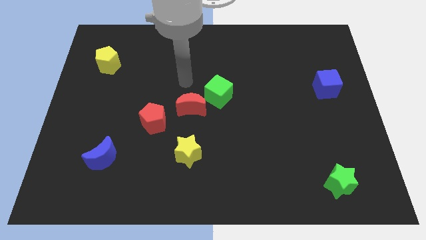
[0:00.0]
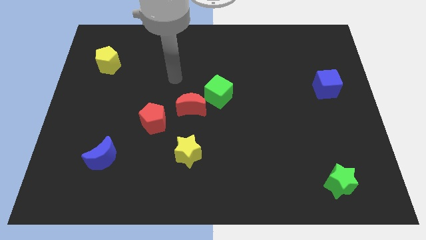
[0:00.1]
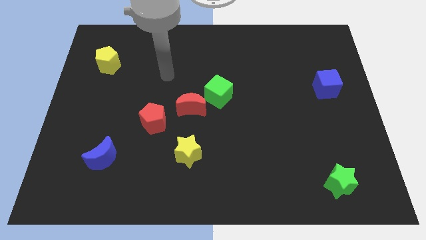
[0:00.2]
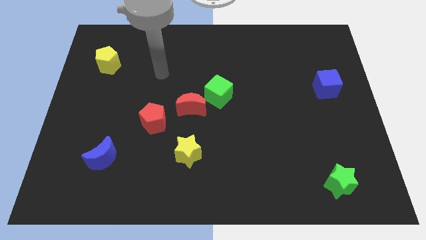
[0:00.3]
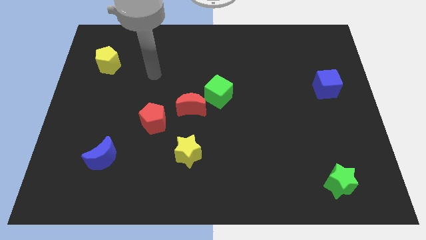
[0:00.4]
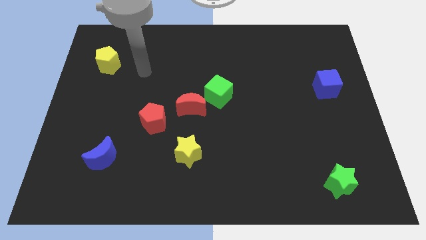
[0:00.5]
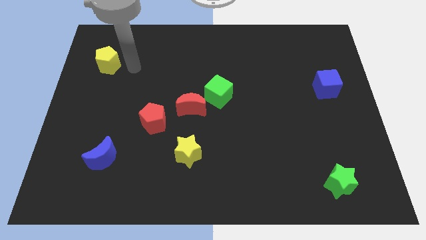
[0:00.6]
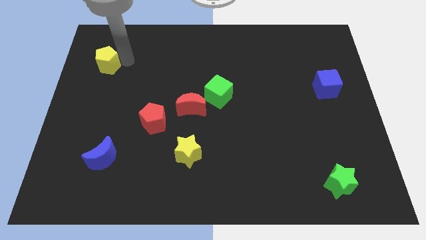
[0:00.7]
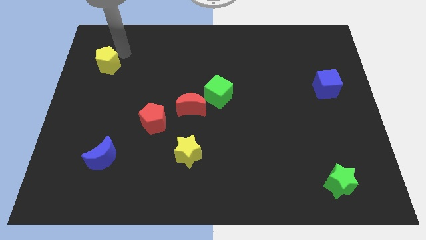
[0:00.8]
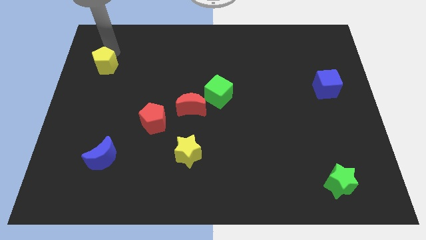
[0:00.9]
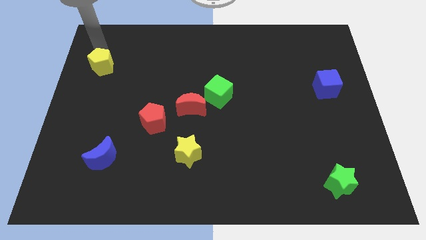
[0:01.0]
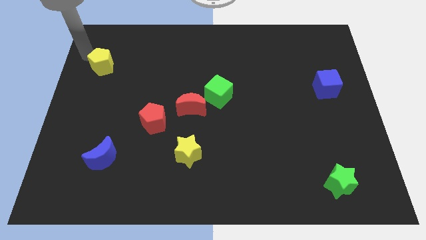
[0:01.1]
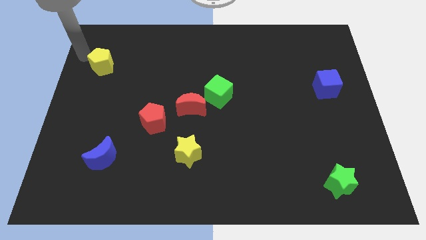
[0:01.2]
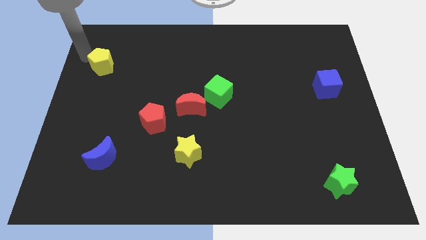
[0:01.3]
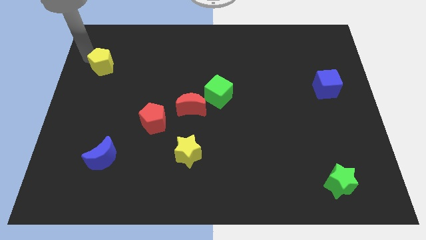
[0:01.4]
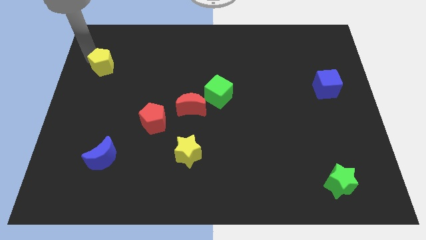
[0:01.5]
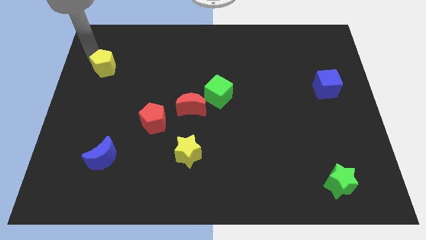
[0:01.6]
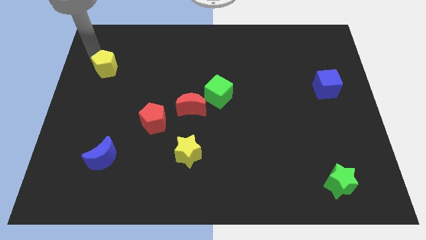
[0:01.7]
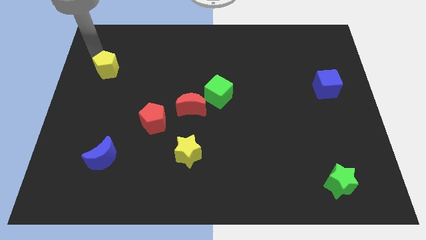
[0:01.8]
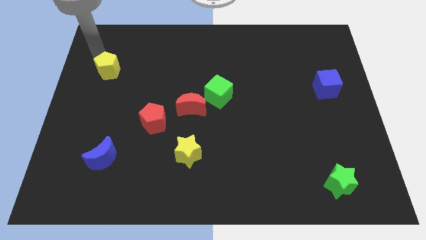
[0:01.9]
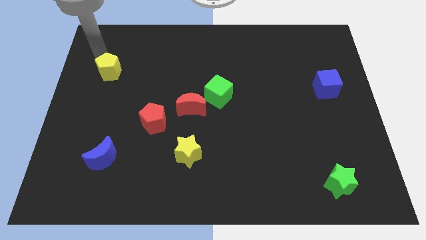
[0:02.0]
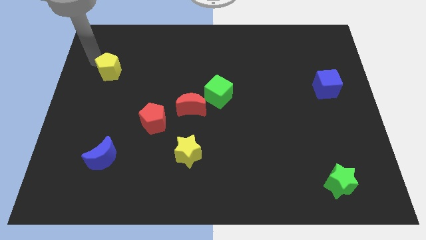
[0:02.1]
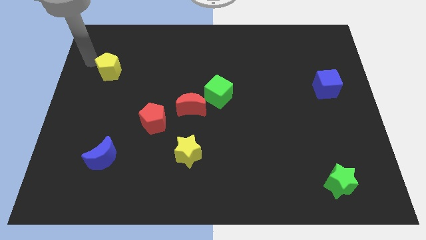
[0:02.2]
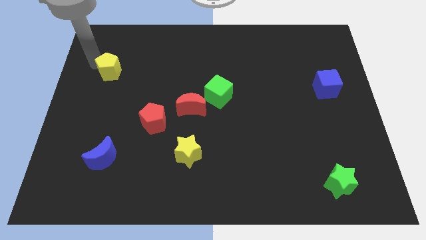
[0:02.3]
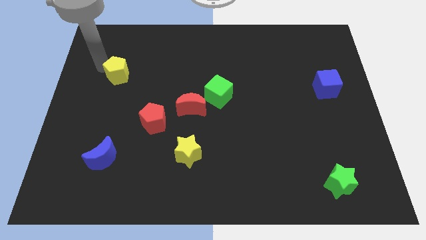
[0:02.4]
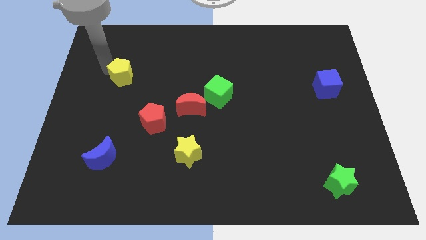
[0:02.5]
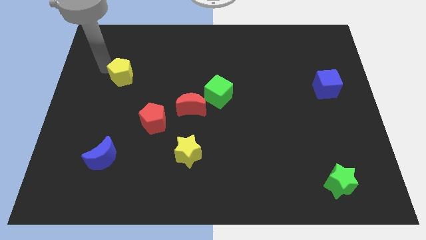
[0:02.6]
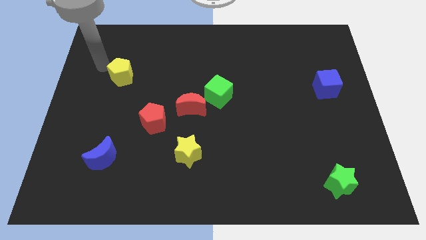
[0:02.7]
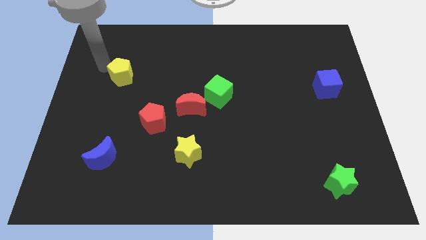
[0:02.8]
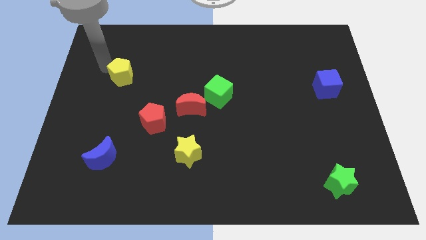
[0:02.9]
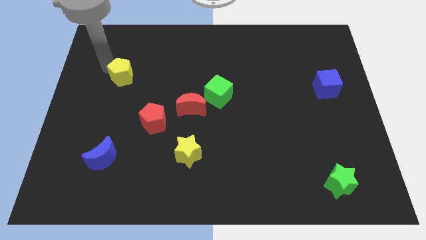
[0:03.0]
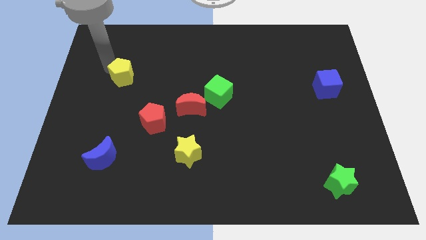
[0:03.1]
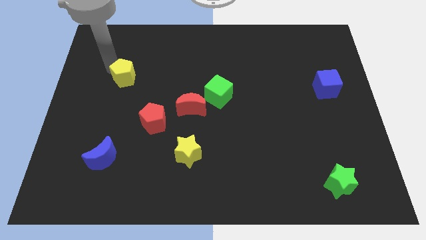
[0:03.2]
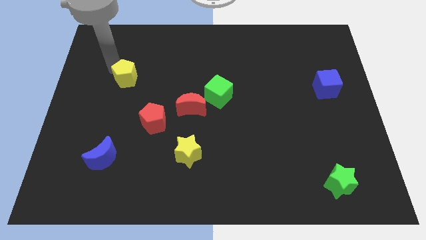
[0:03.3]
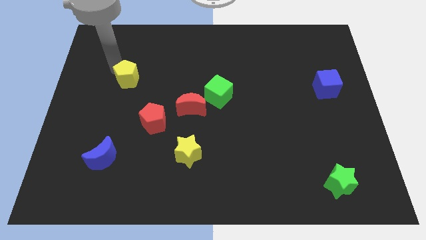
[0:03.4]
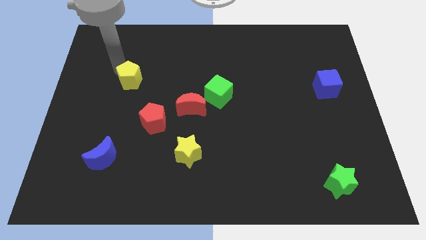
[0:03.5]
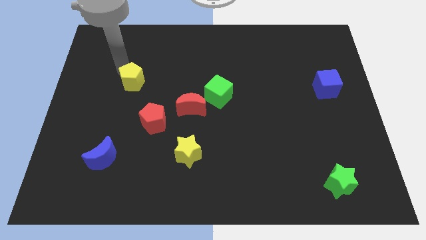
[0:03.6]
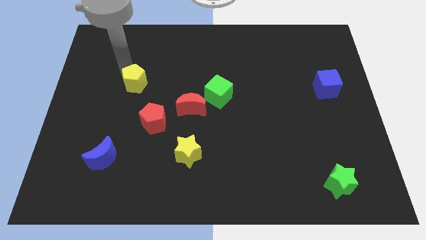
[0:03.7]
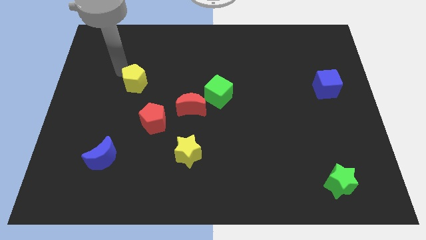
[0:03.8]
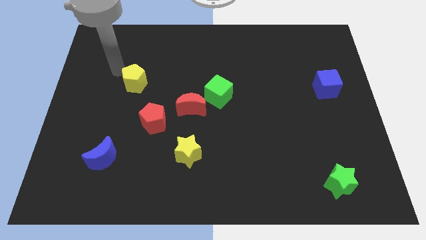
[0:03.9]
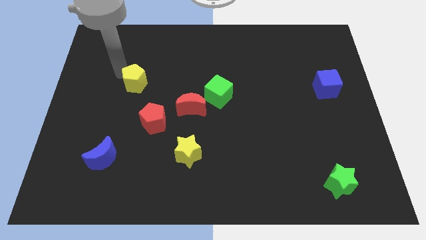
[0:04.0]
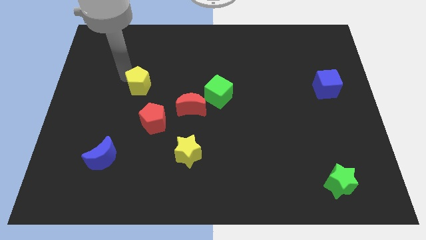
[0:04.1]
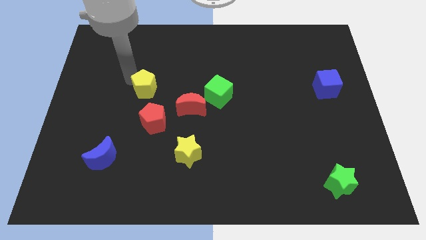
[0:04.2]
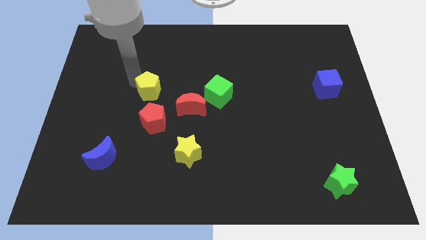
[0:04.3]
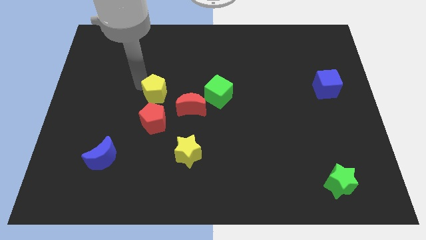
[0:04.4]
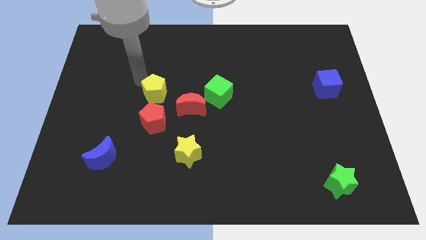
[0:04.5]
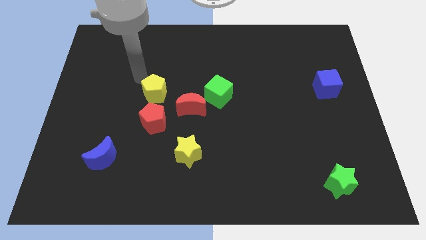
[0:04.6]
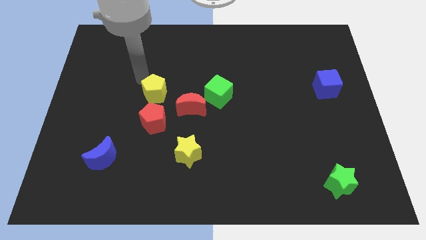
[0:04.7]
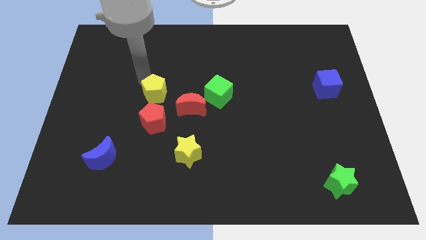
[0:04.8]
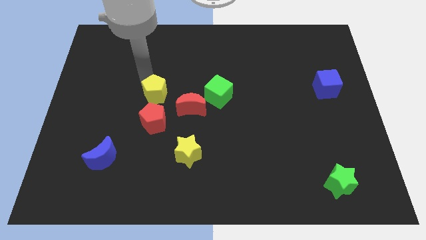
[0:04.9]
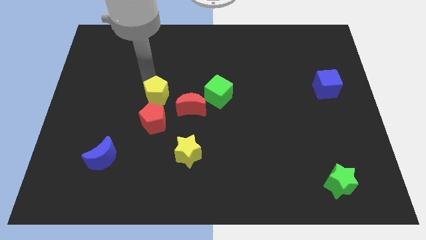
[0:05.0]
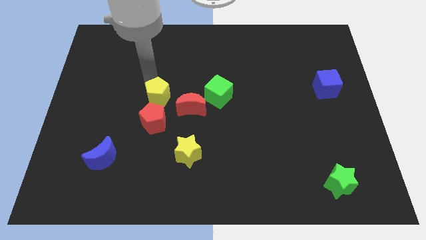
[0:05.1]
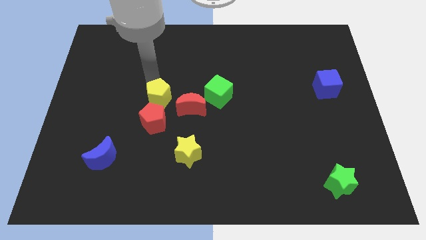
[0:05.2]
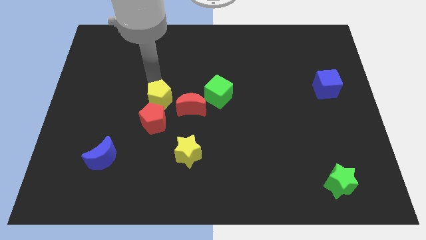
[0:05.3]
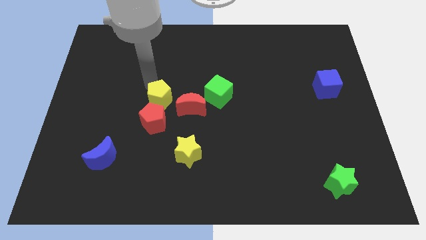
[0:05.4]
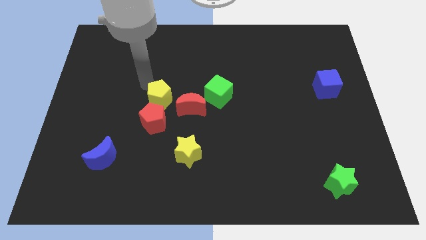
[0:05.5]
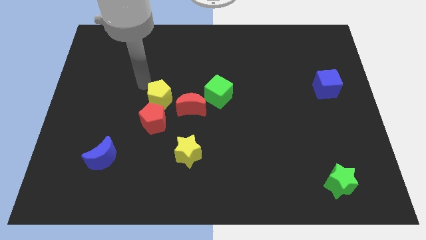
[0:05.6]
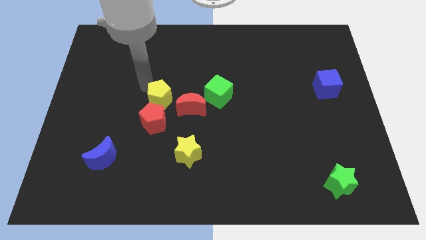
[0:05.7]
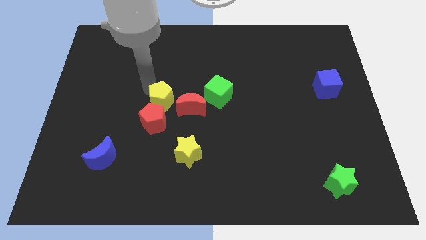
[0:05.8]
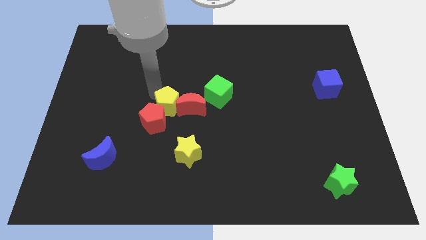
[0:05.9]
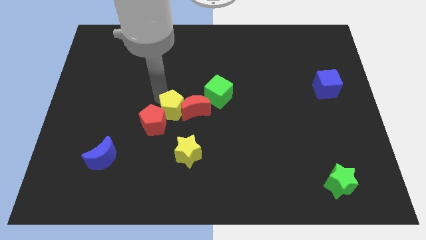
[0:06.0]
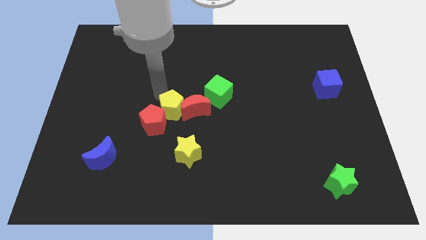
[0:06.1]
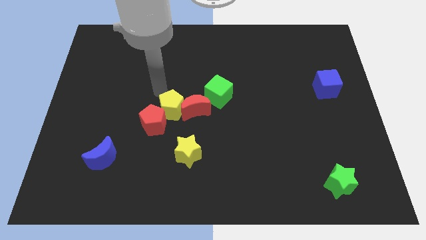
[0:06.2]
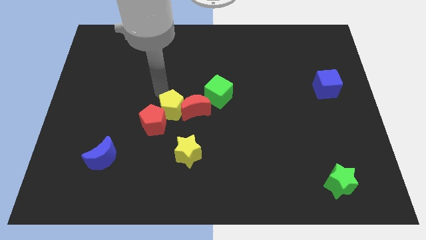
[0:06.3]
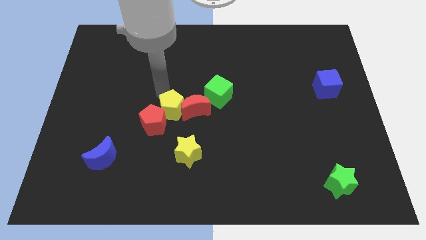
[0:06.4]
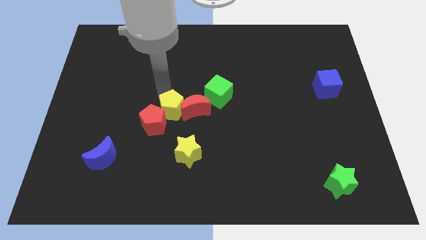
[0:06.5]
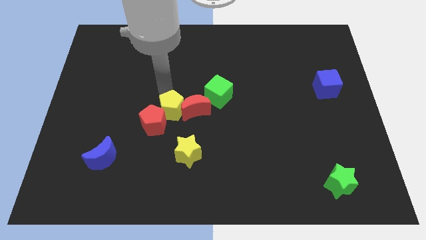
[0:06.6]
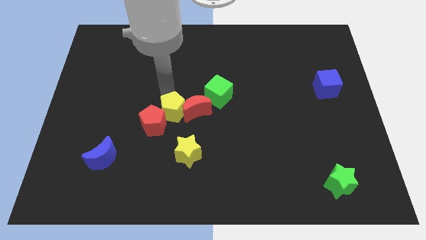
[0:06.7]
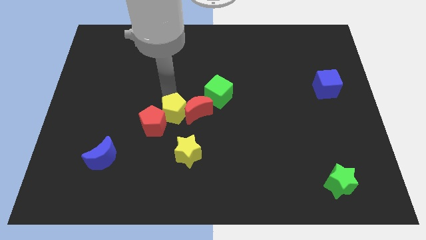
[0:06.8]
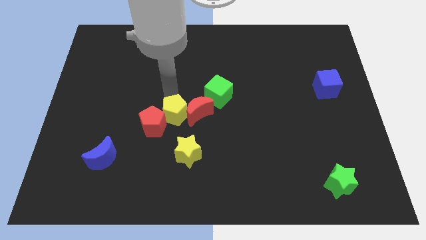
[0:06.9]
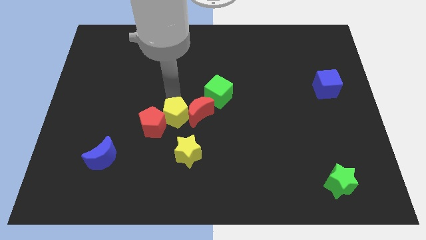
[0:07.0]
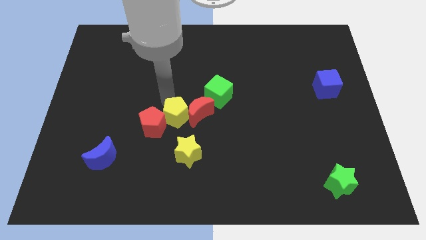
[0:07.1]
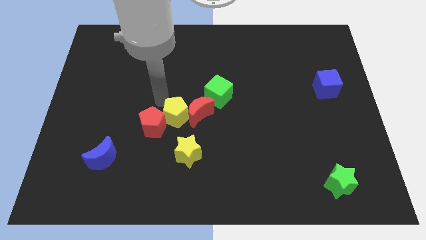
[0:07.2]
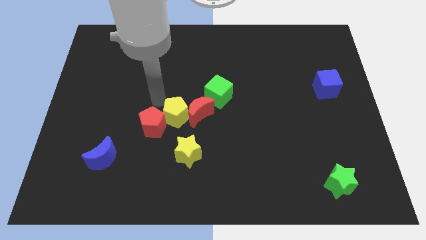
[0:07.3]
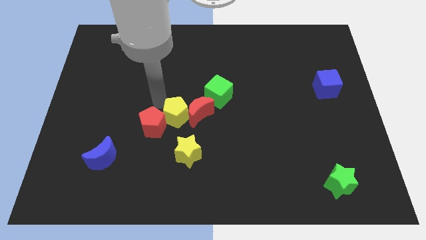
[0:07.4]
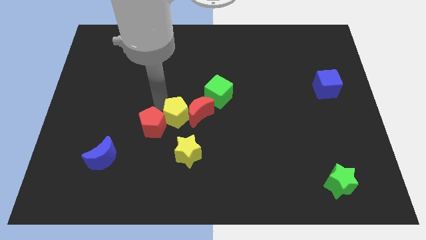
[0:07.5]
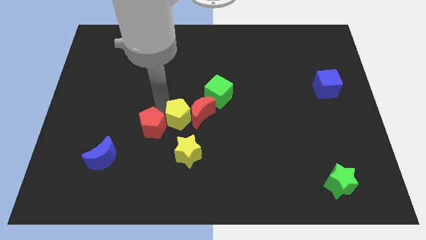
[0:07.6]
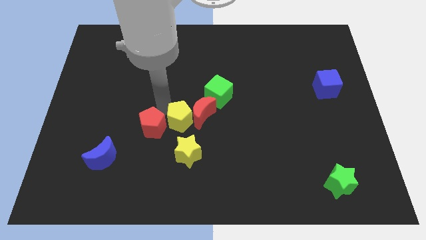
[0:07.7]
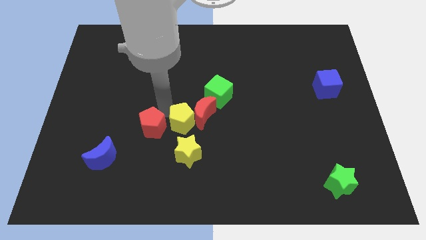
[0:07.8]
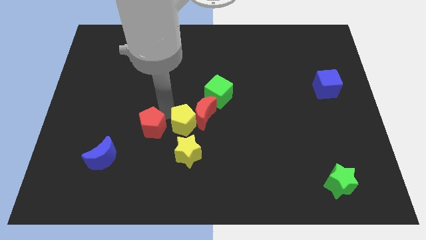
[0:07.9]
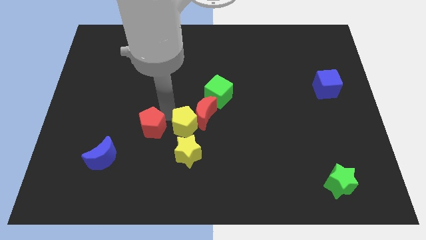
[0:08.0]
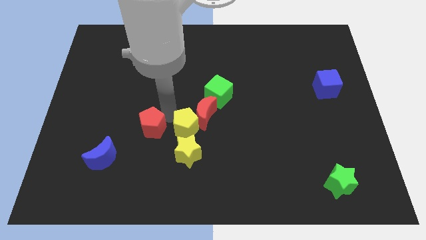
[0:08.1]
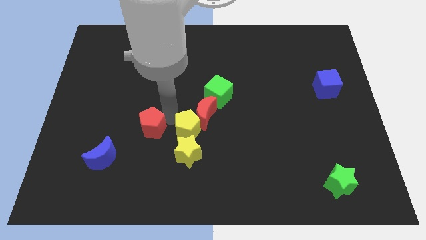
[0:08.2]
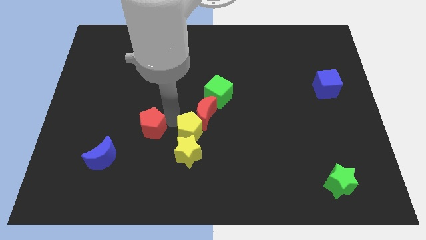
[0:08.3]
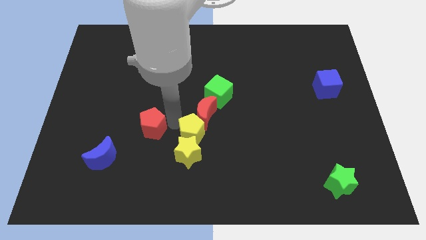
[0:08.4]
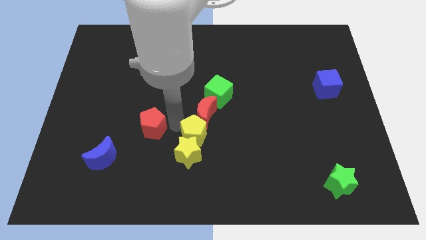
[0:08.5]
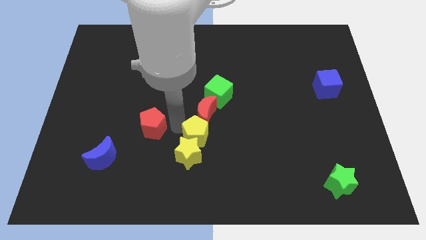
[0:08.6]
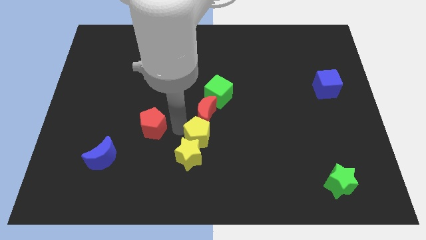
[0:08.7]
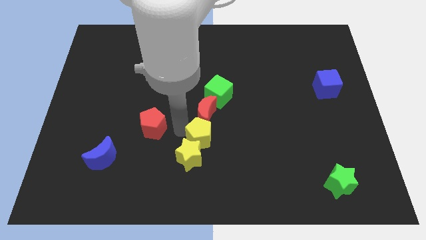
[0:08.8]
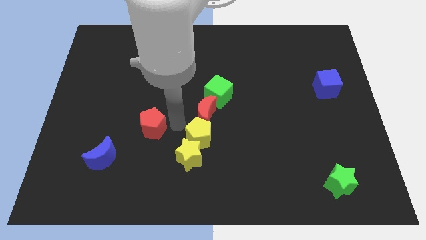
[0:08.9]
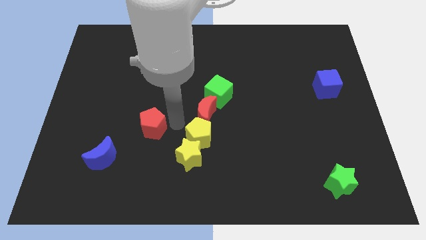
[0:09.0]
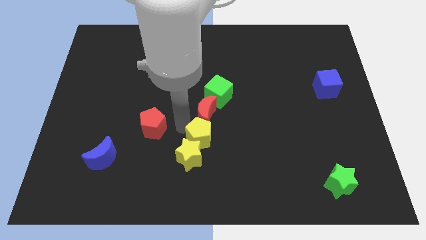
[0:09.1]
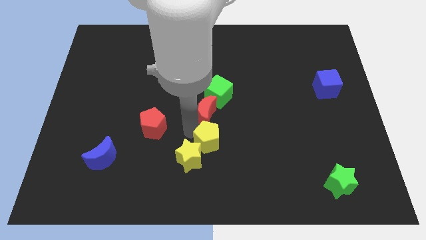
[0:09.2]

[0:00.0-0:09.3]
slide the yellow pentagon to the right side of the yellow star
